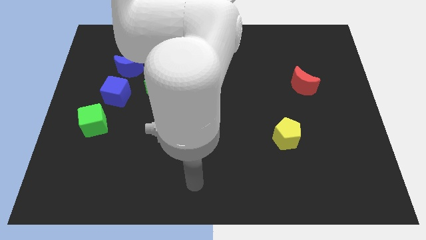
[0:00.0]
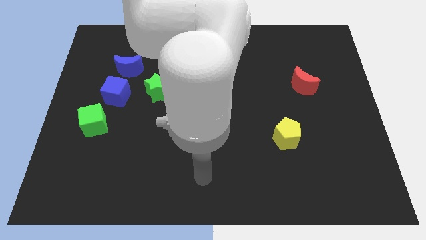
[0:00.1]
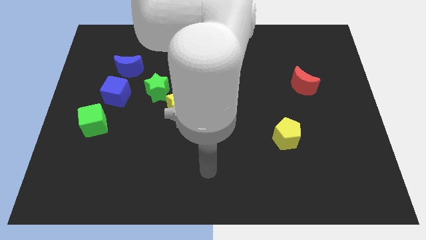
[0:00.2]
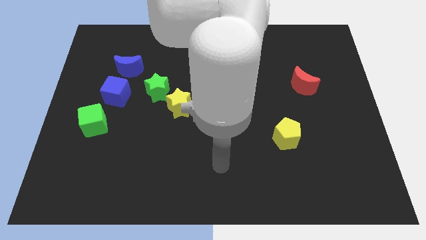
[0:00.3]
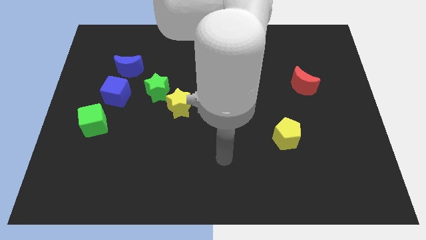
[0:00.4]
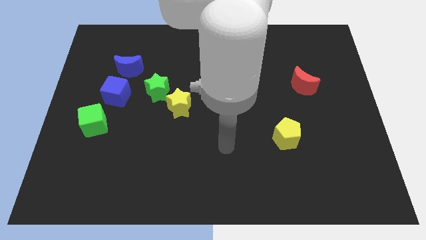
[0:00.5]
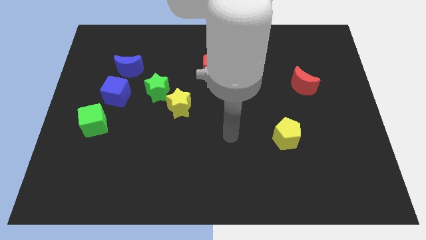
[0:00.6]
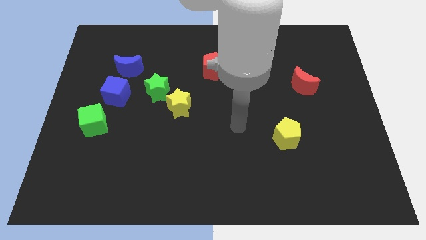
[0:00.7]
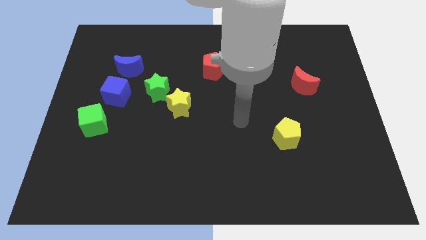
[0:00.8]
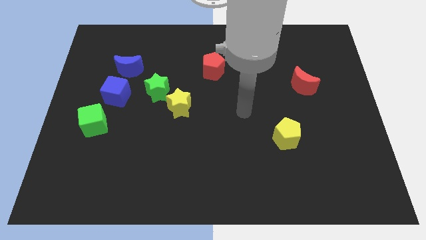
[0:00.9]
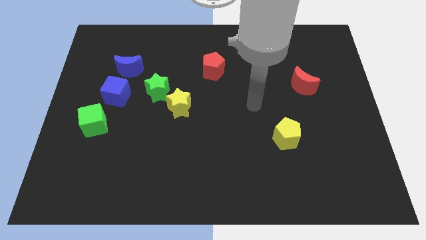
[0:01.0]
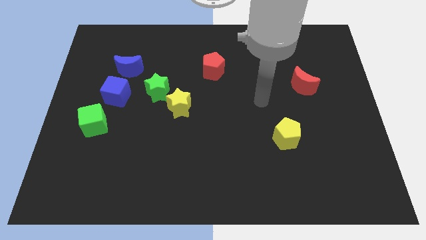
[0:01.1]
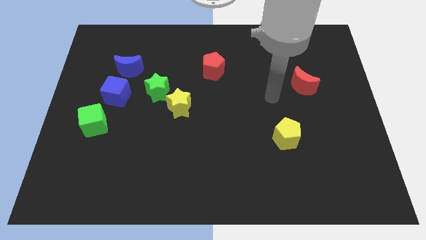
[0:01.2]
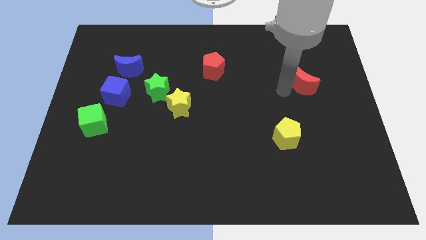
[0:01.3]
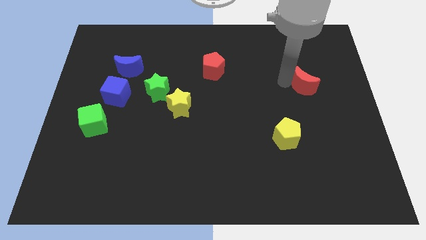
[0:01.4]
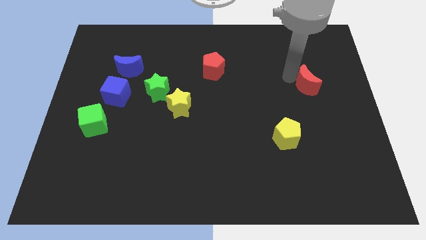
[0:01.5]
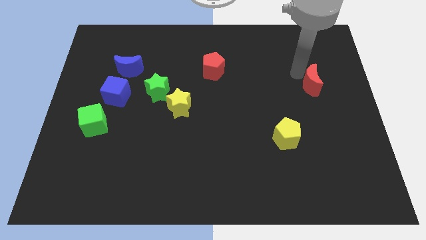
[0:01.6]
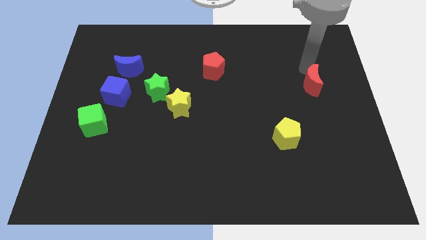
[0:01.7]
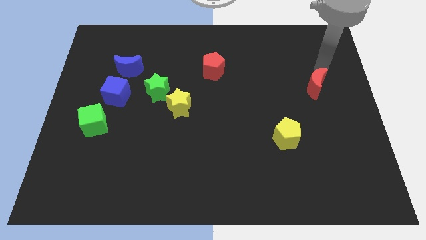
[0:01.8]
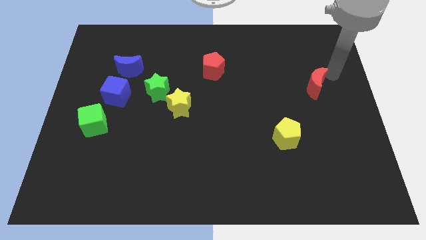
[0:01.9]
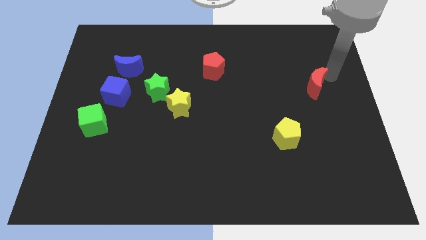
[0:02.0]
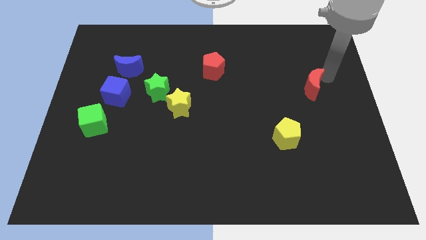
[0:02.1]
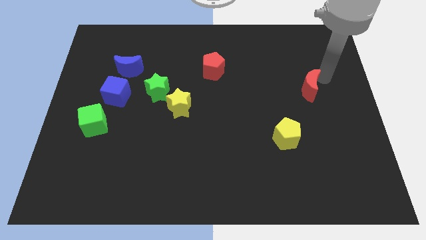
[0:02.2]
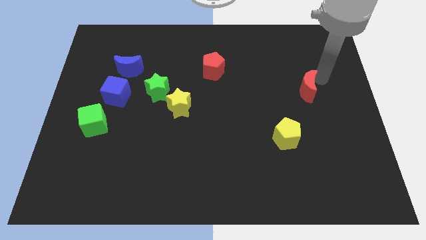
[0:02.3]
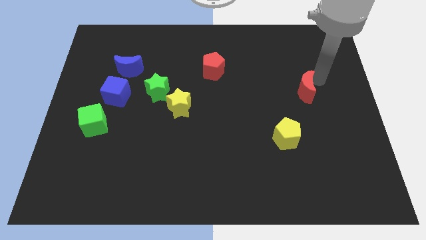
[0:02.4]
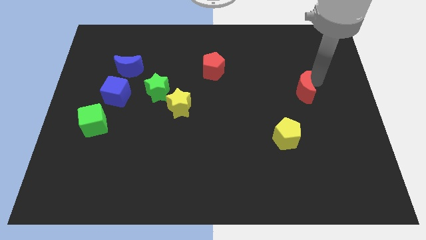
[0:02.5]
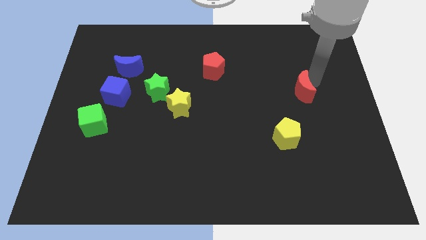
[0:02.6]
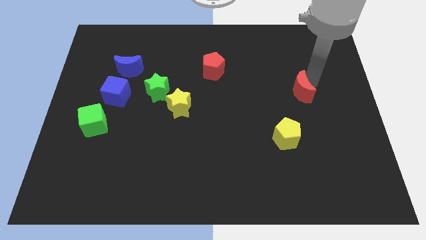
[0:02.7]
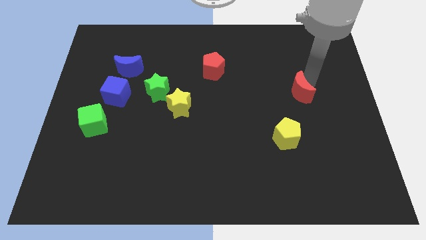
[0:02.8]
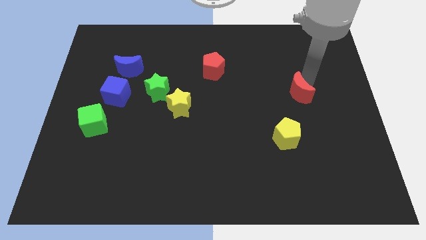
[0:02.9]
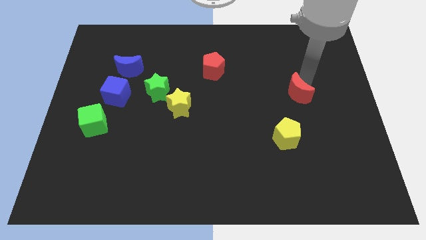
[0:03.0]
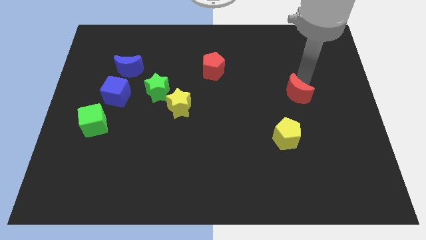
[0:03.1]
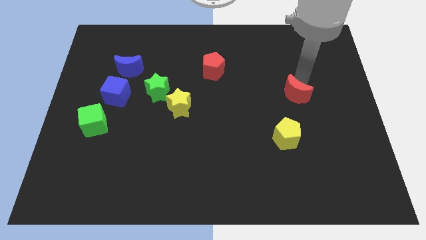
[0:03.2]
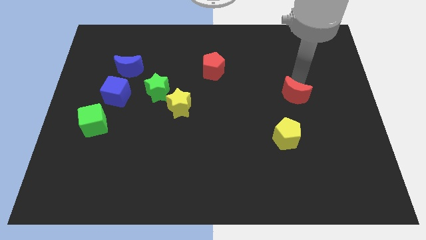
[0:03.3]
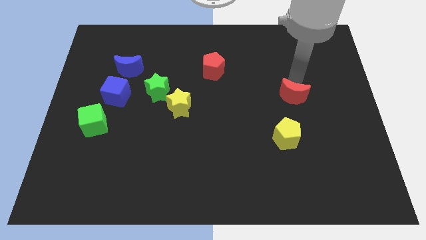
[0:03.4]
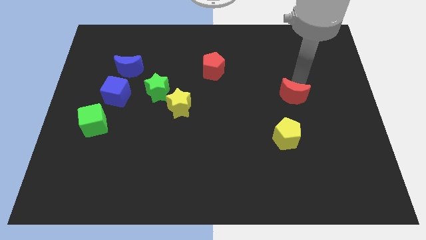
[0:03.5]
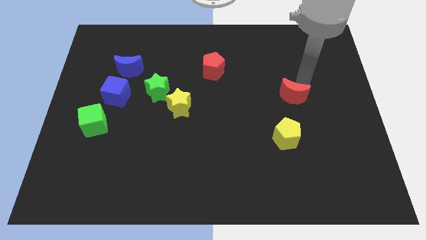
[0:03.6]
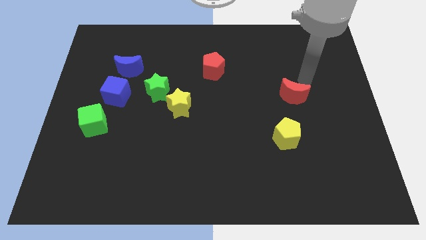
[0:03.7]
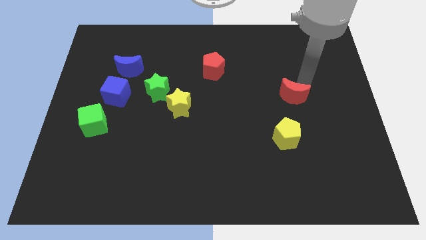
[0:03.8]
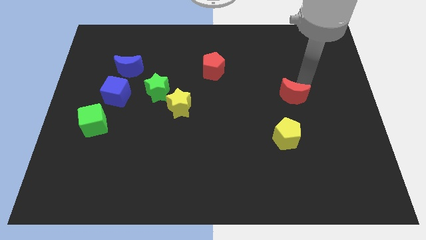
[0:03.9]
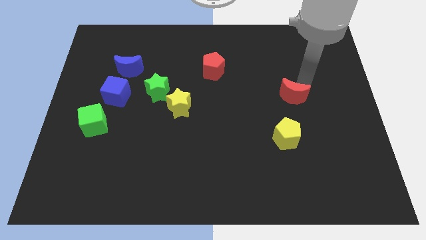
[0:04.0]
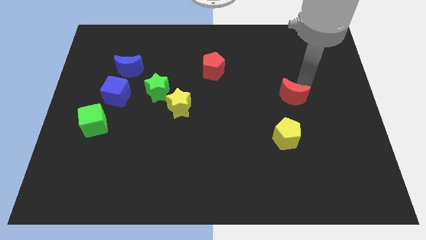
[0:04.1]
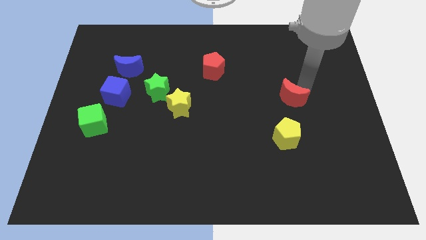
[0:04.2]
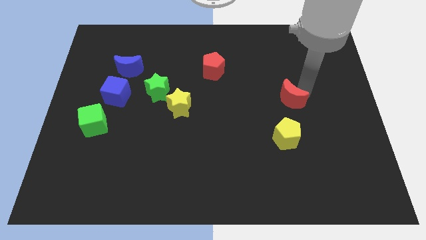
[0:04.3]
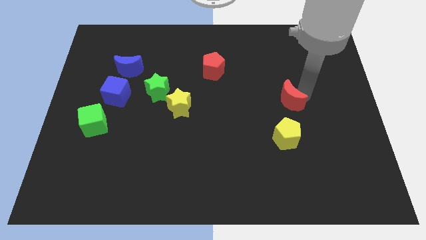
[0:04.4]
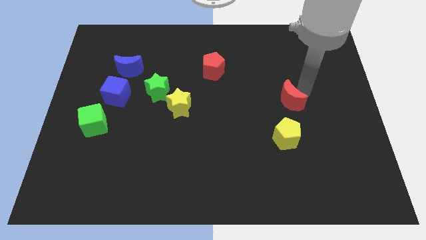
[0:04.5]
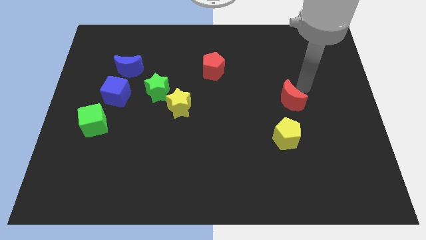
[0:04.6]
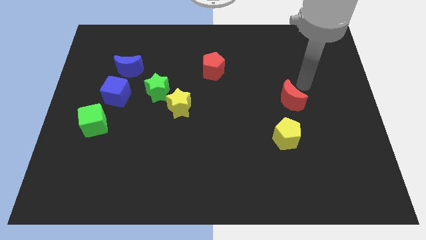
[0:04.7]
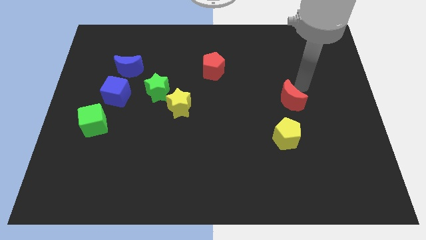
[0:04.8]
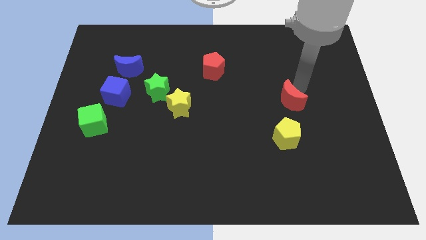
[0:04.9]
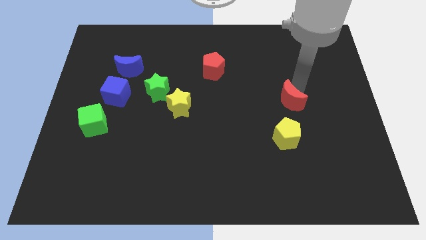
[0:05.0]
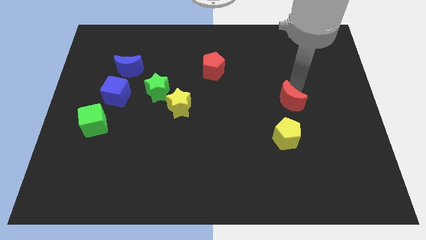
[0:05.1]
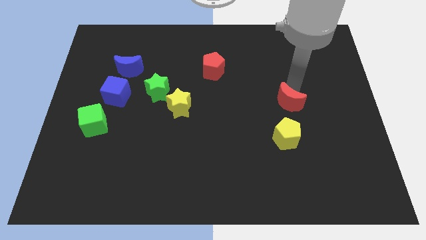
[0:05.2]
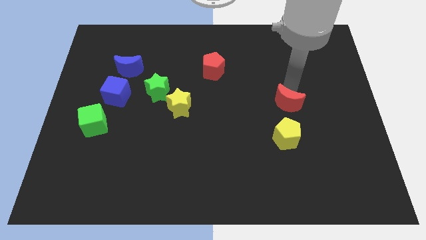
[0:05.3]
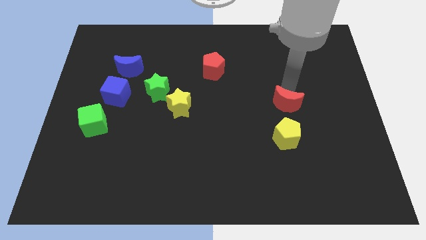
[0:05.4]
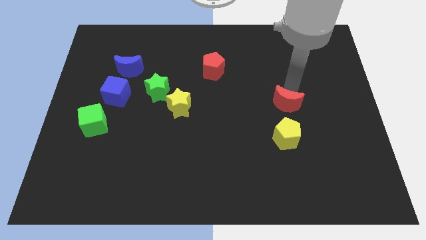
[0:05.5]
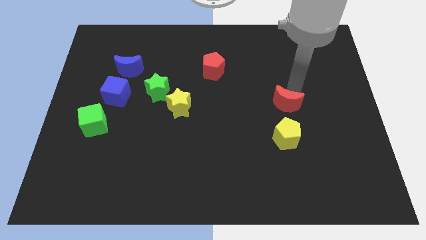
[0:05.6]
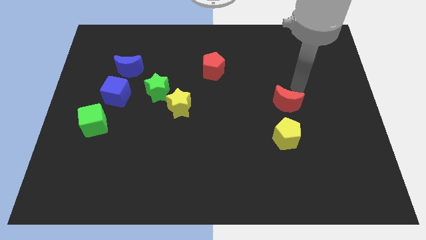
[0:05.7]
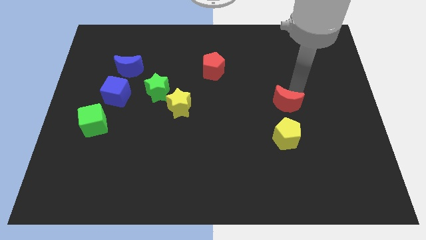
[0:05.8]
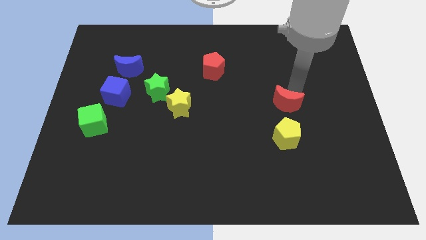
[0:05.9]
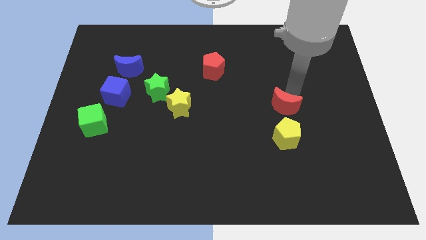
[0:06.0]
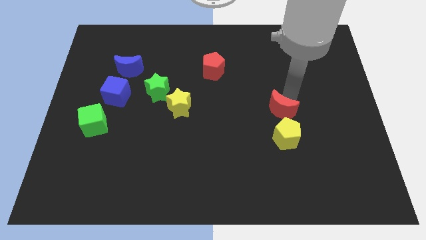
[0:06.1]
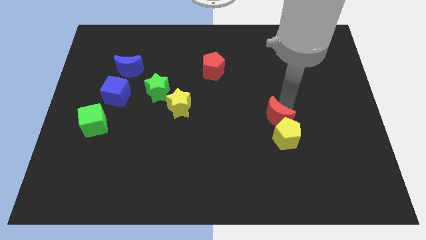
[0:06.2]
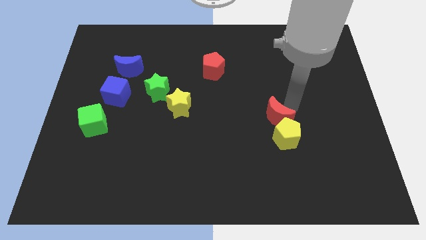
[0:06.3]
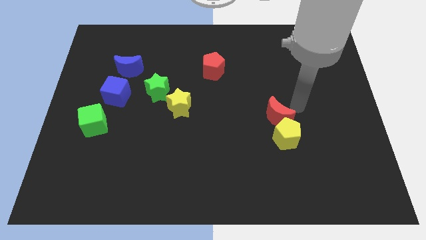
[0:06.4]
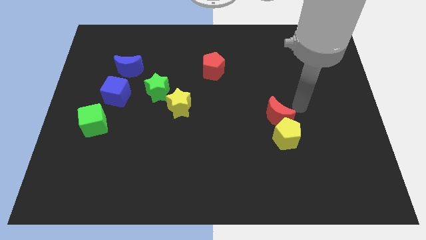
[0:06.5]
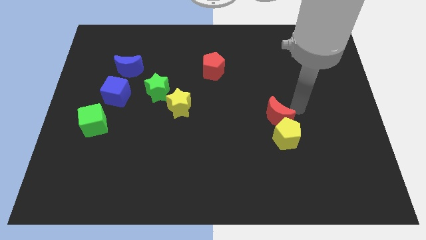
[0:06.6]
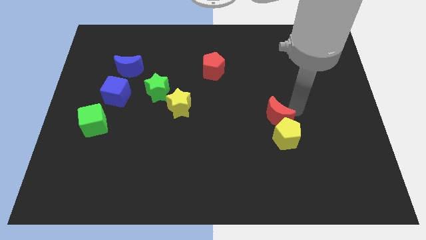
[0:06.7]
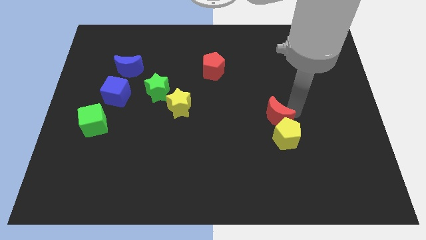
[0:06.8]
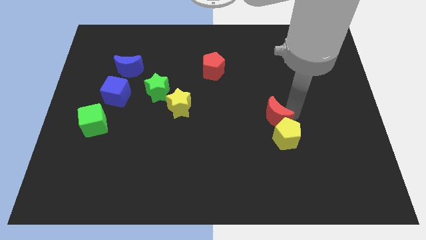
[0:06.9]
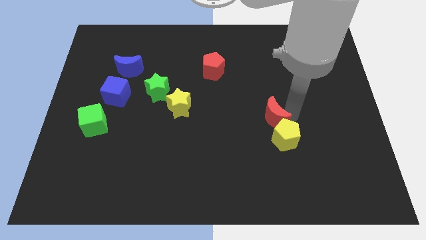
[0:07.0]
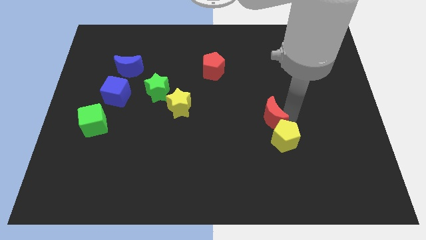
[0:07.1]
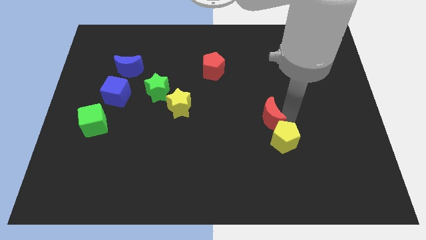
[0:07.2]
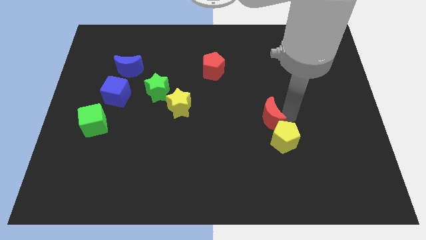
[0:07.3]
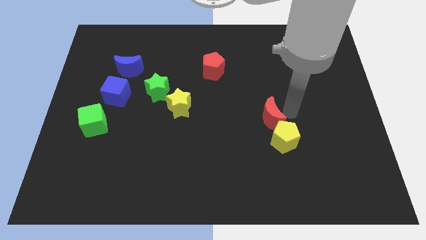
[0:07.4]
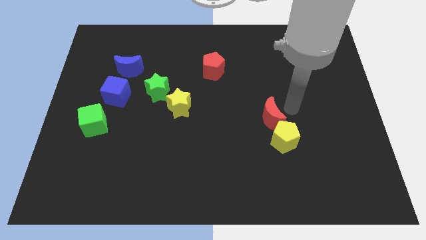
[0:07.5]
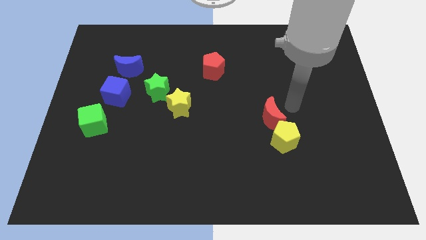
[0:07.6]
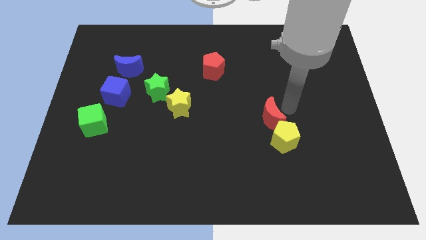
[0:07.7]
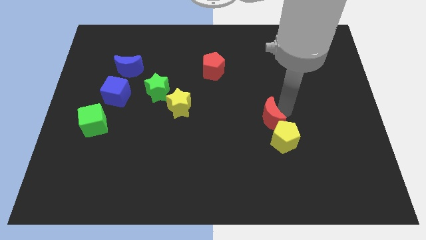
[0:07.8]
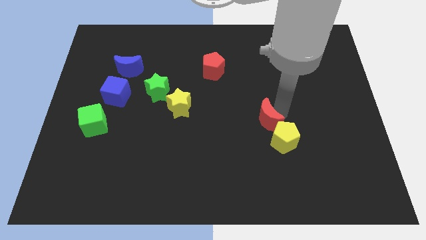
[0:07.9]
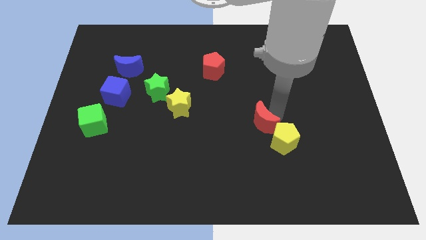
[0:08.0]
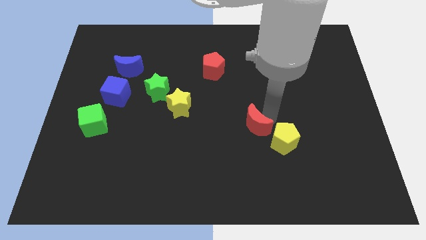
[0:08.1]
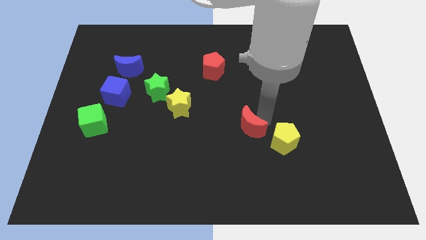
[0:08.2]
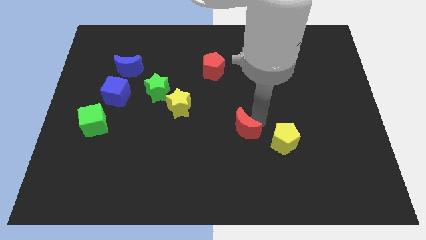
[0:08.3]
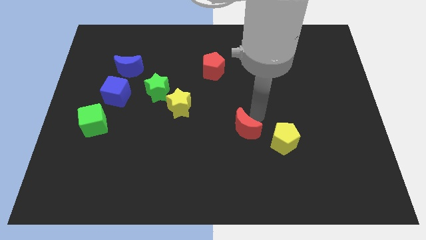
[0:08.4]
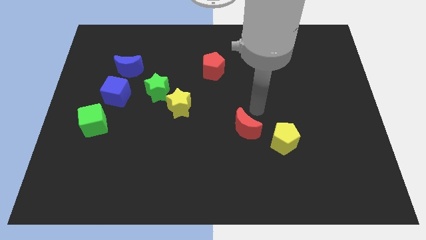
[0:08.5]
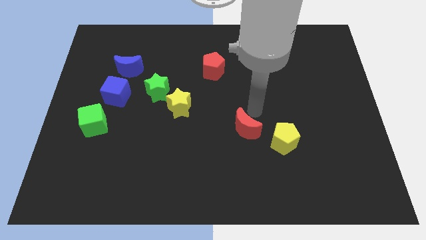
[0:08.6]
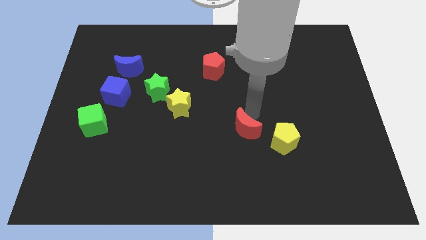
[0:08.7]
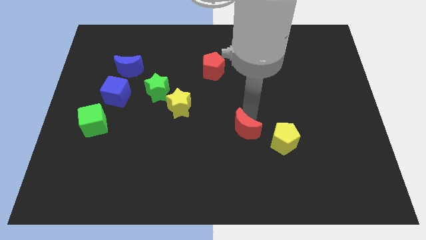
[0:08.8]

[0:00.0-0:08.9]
slide the red moon downwards and then to the left
